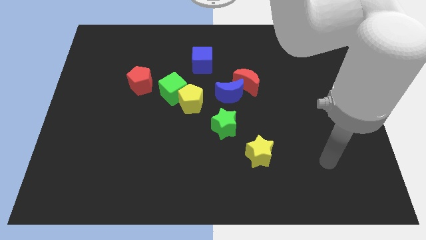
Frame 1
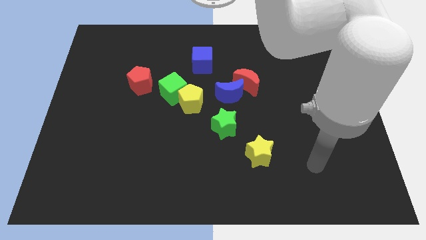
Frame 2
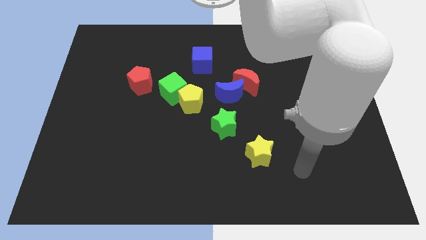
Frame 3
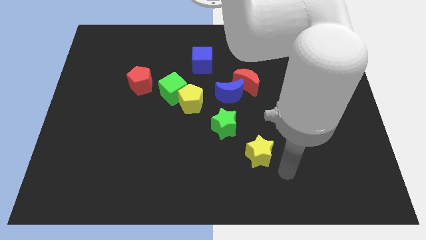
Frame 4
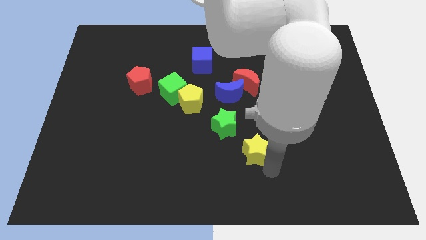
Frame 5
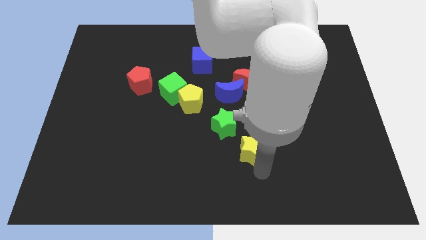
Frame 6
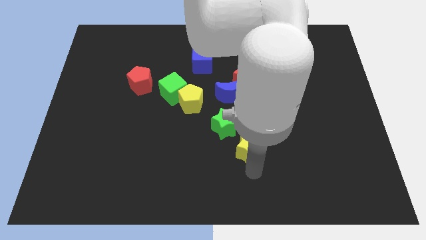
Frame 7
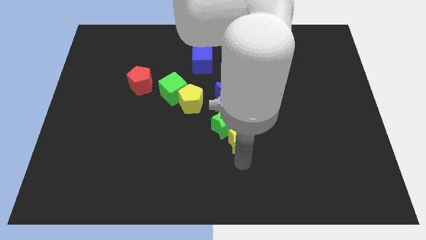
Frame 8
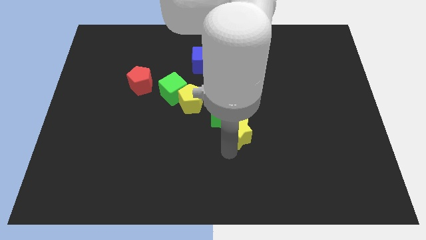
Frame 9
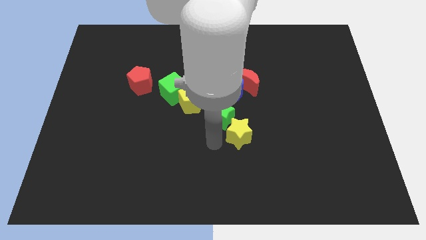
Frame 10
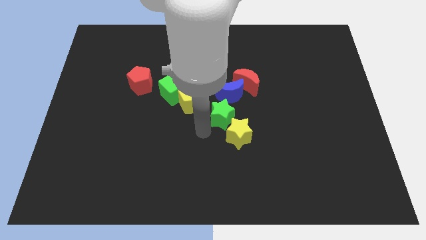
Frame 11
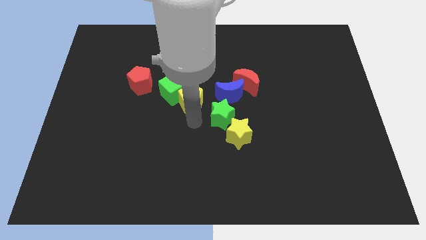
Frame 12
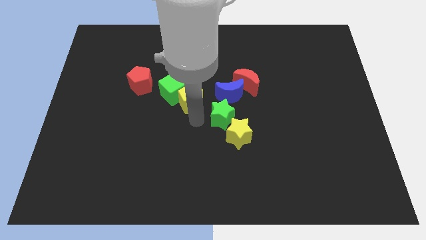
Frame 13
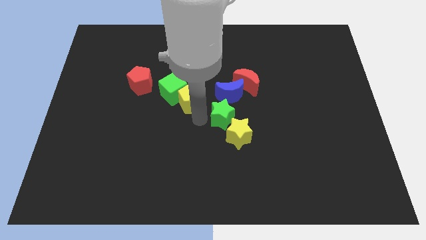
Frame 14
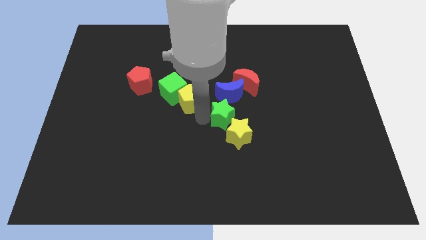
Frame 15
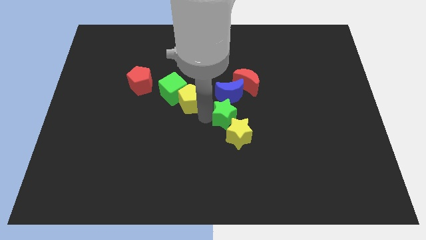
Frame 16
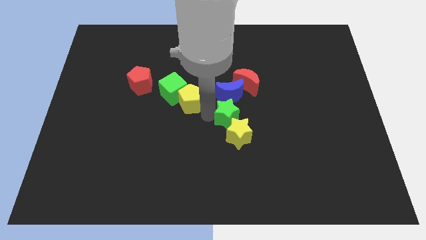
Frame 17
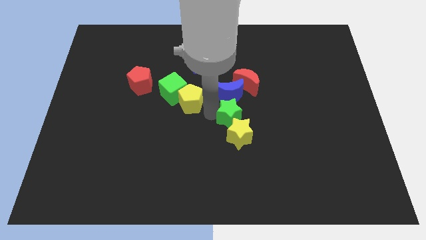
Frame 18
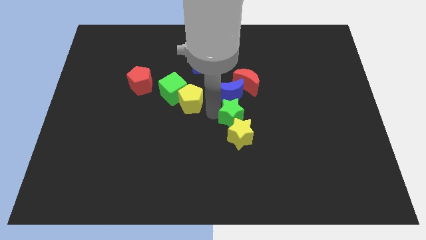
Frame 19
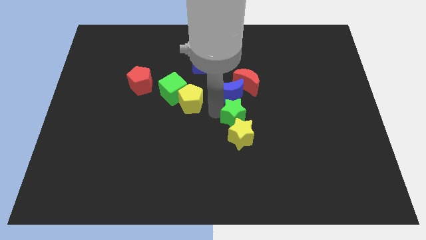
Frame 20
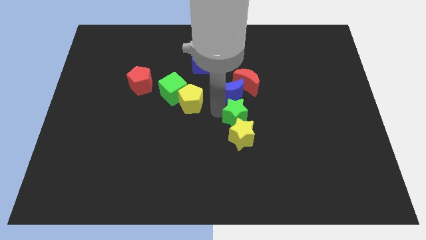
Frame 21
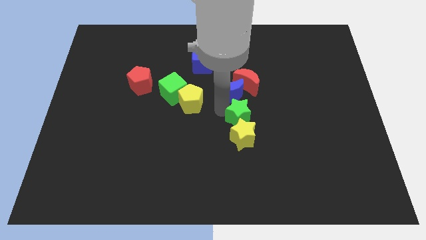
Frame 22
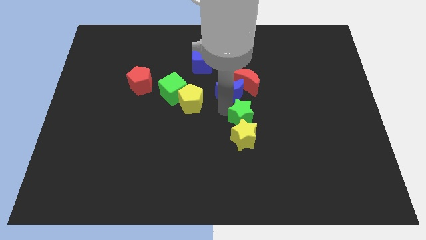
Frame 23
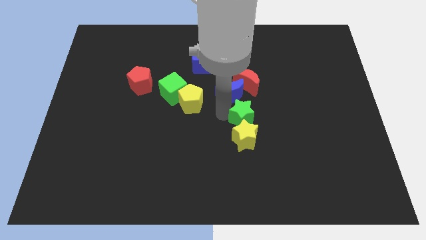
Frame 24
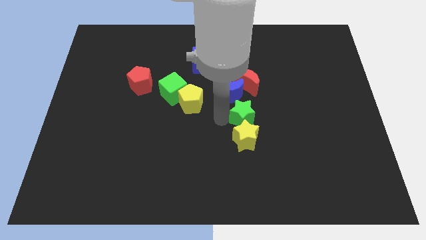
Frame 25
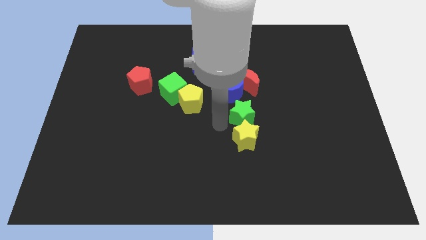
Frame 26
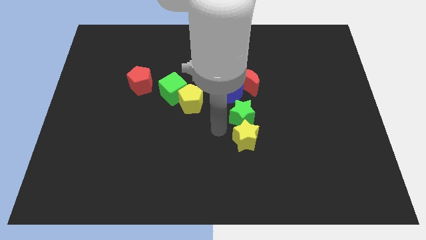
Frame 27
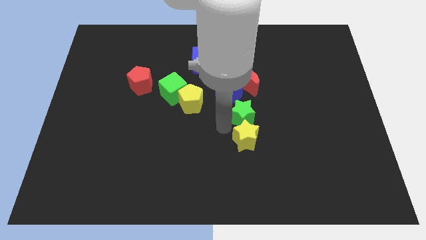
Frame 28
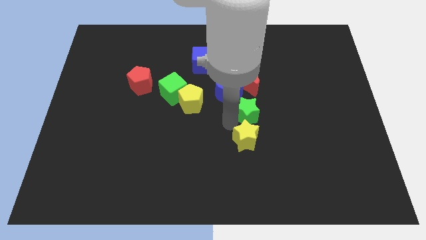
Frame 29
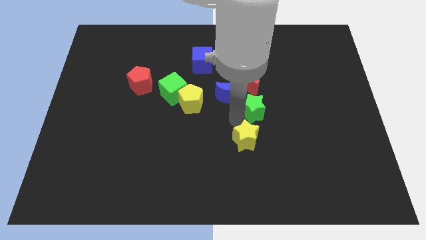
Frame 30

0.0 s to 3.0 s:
move the green star slightly up and right

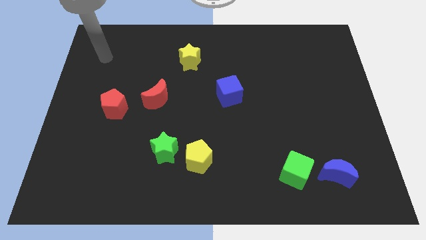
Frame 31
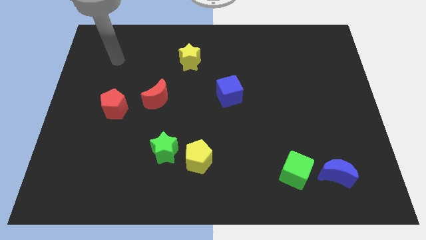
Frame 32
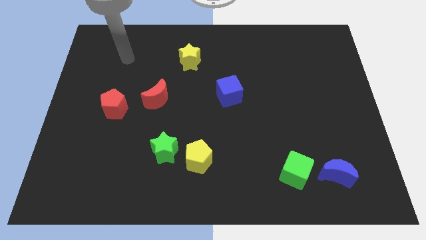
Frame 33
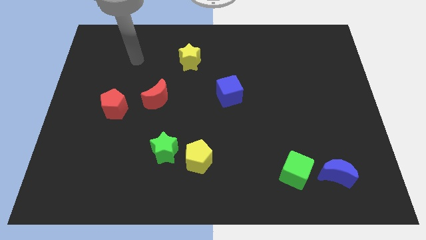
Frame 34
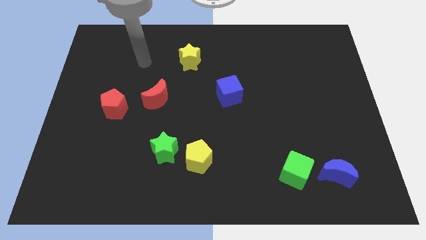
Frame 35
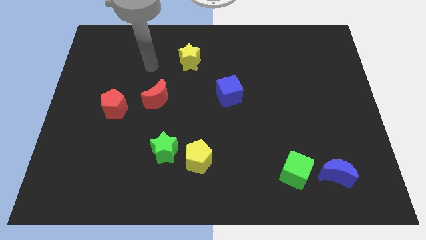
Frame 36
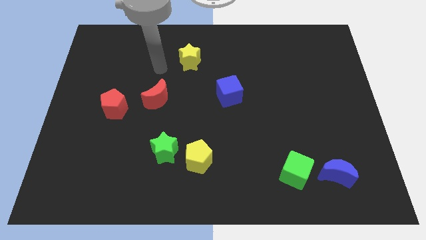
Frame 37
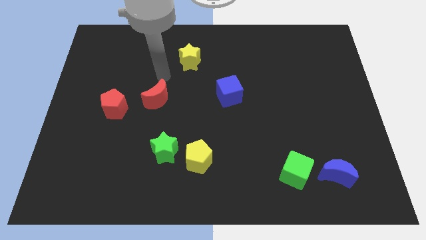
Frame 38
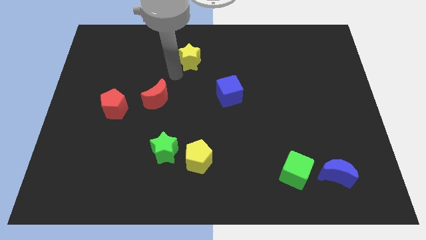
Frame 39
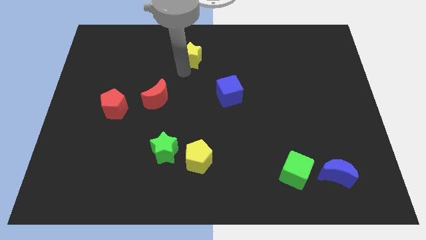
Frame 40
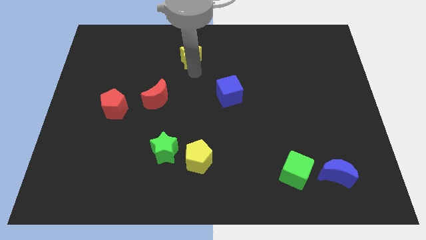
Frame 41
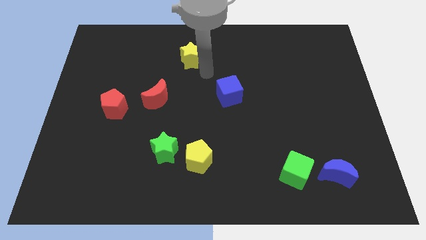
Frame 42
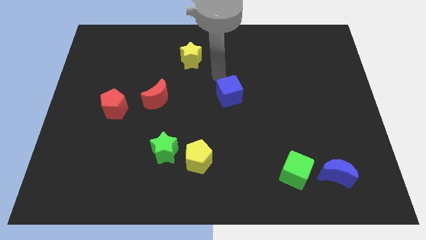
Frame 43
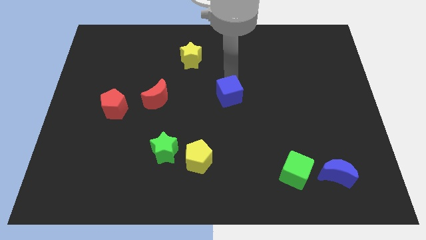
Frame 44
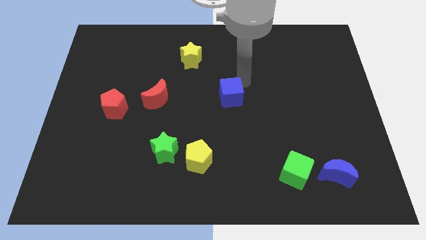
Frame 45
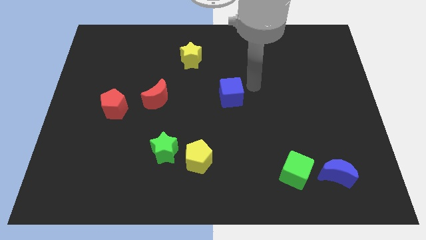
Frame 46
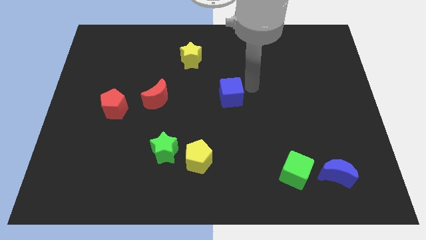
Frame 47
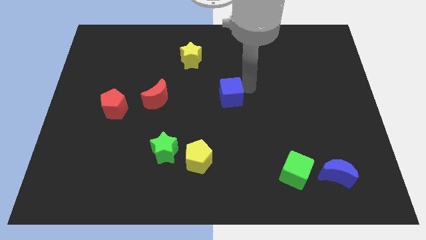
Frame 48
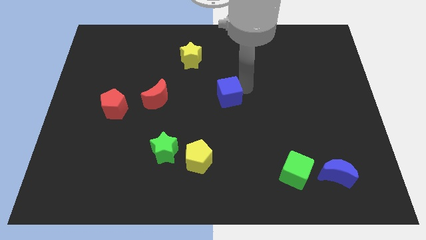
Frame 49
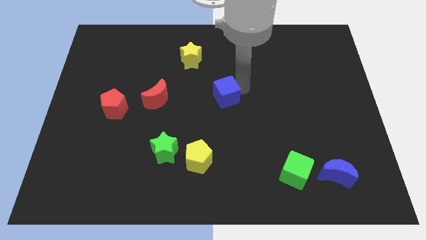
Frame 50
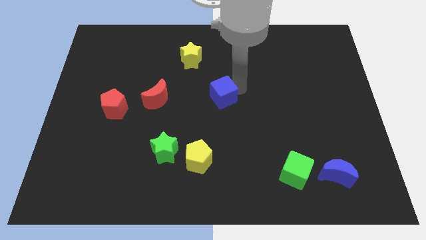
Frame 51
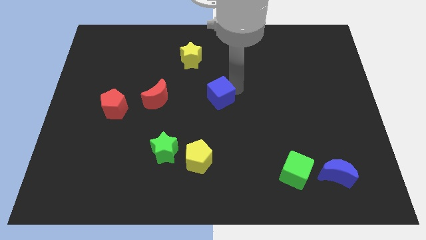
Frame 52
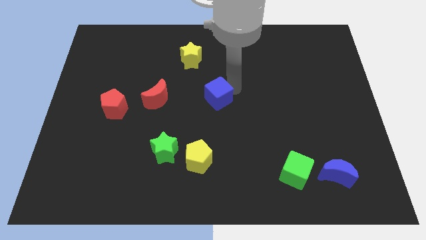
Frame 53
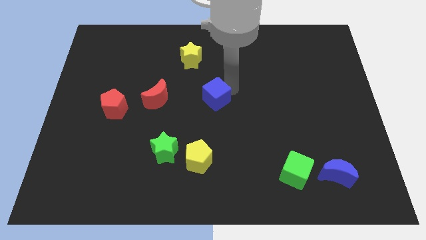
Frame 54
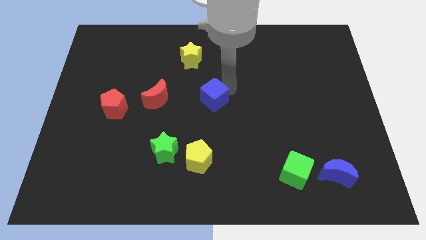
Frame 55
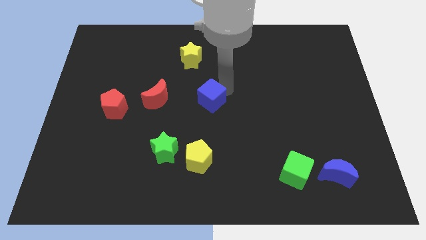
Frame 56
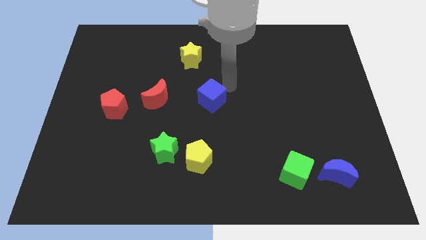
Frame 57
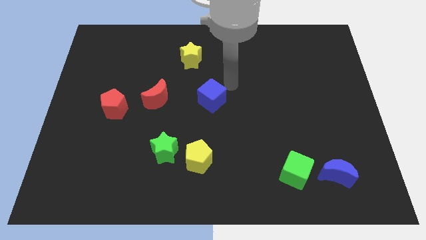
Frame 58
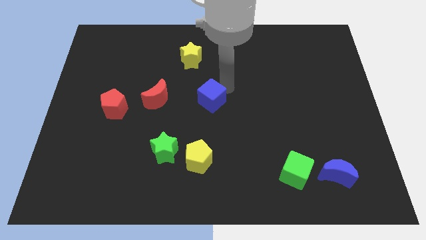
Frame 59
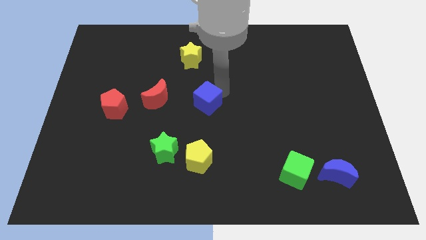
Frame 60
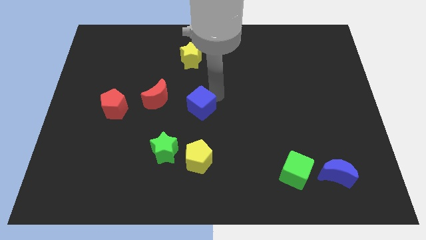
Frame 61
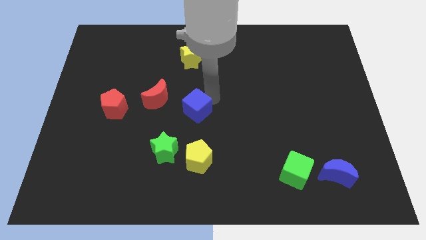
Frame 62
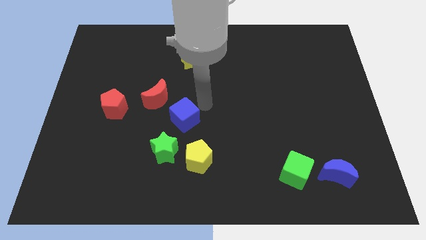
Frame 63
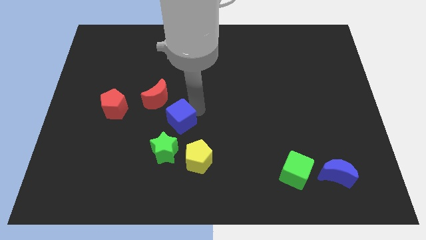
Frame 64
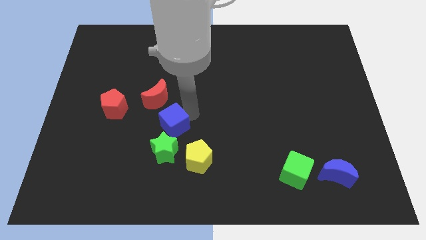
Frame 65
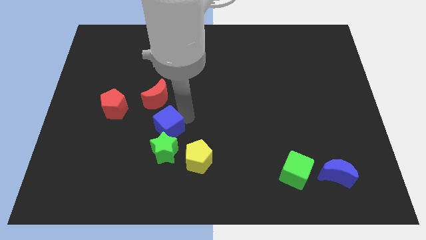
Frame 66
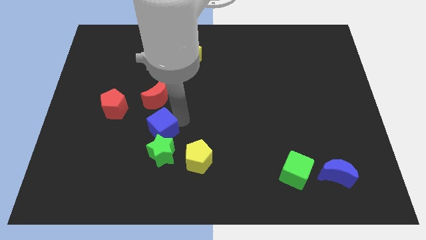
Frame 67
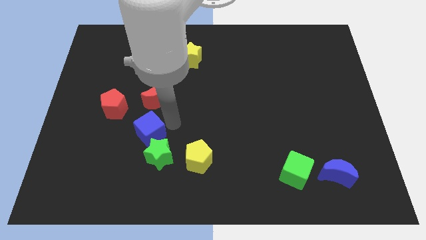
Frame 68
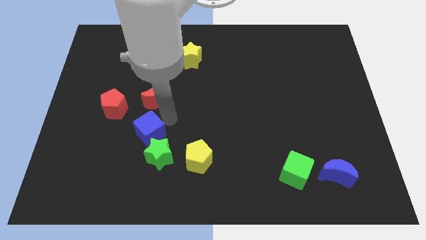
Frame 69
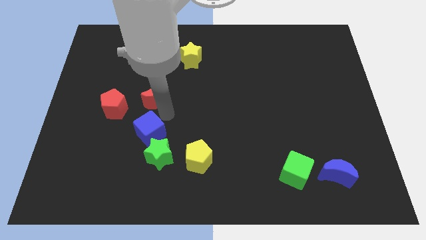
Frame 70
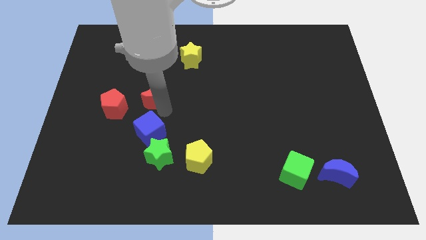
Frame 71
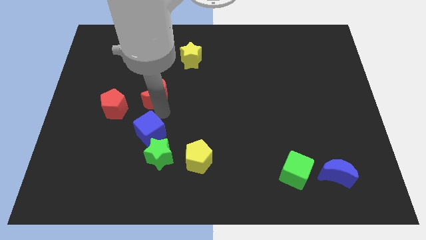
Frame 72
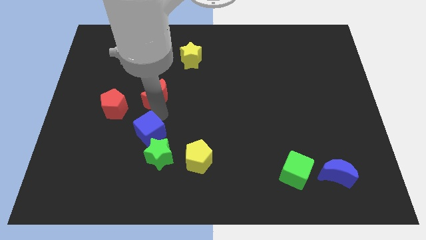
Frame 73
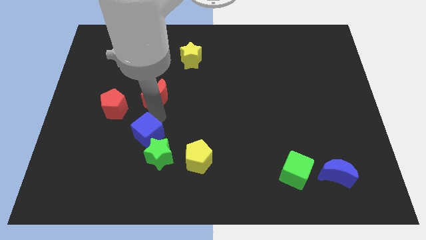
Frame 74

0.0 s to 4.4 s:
move the blue cube diagonally down and to the left

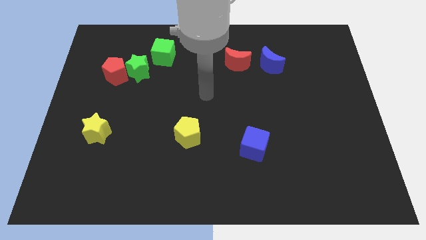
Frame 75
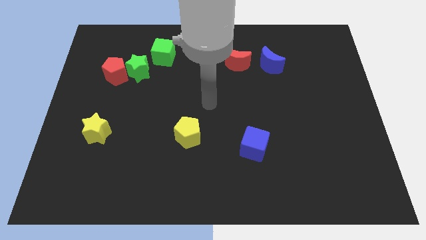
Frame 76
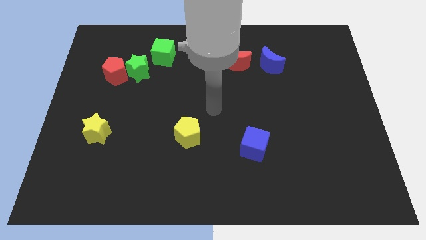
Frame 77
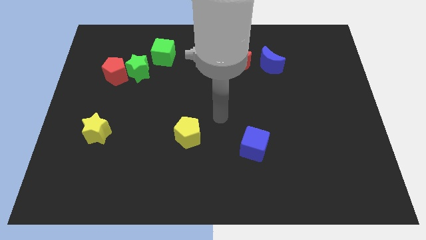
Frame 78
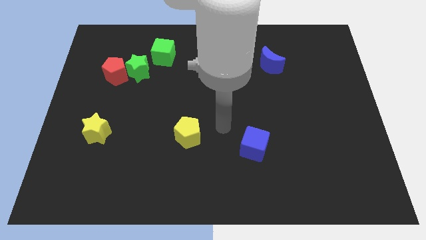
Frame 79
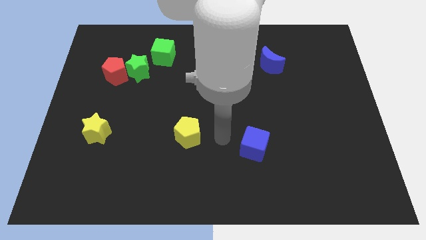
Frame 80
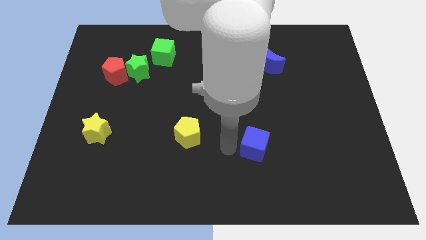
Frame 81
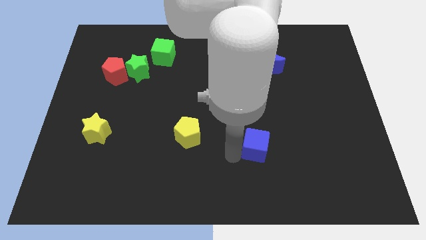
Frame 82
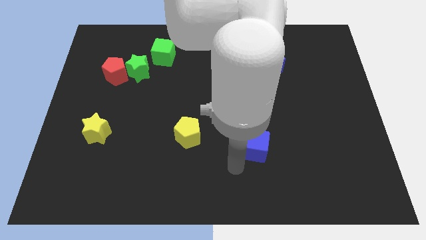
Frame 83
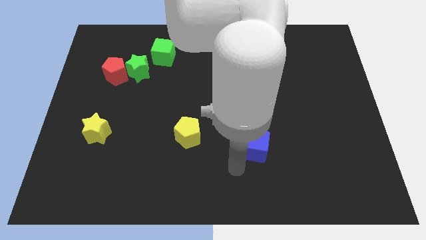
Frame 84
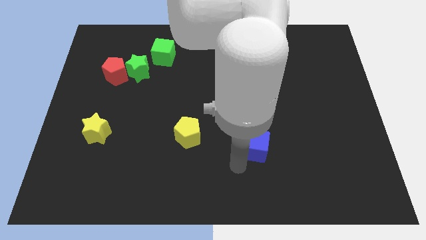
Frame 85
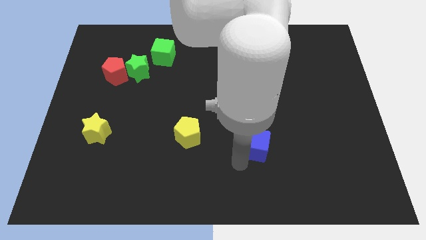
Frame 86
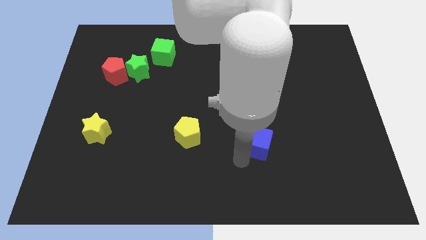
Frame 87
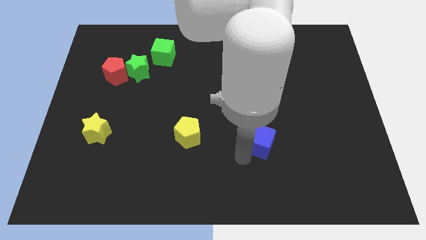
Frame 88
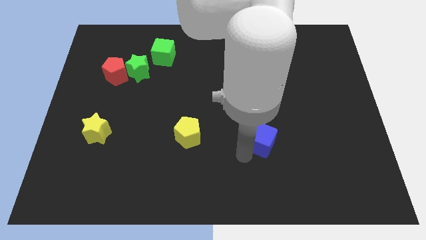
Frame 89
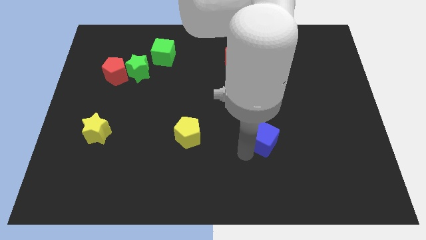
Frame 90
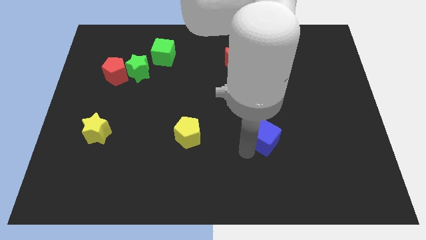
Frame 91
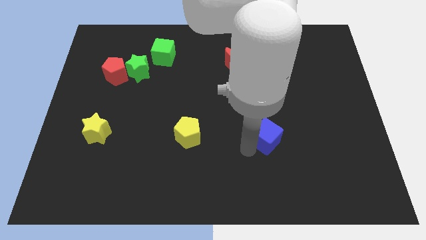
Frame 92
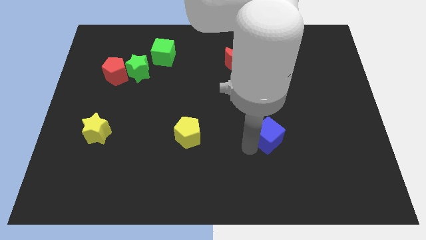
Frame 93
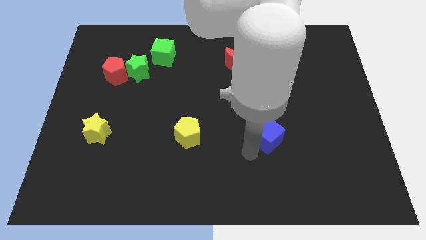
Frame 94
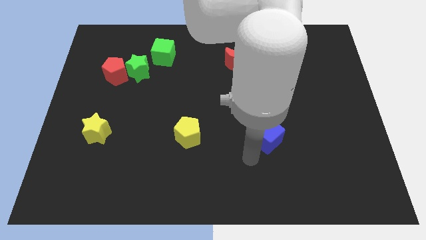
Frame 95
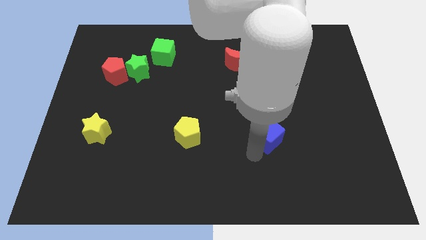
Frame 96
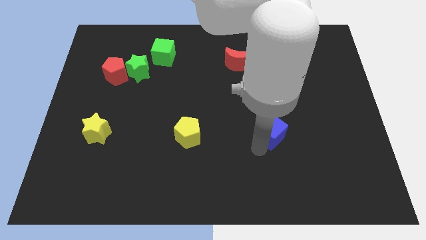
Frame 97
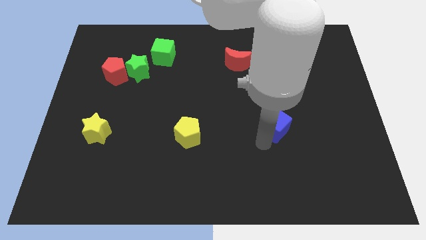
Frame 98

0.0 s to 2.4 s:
slide the blue cube diagonally upwards and right somewhat
